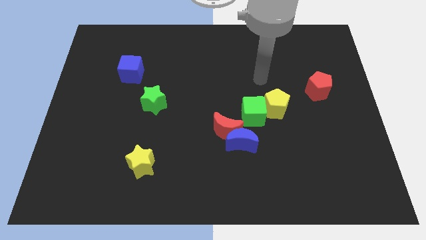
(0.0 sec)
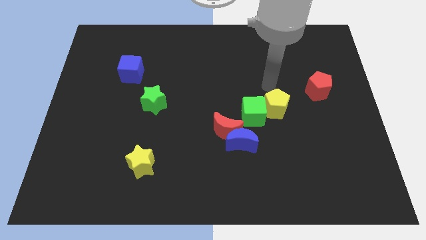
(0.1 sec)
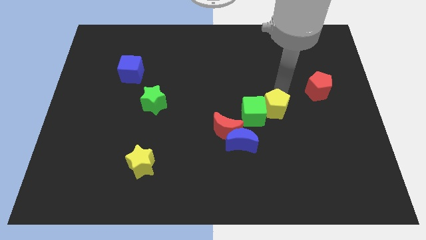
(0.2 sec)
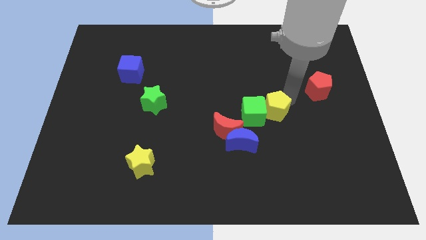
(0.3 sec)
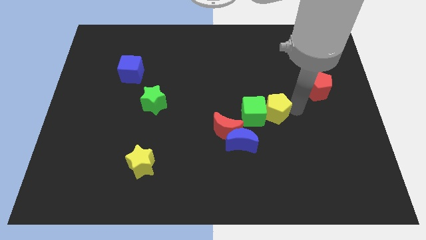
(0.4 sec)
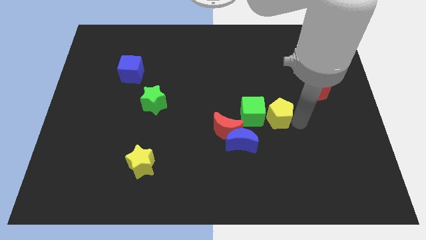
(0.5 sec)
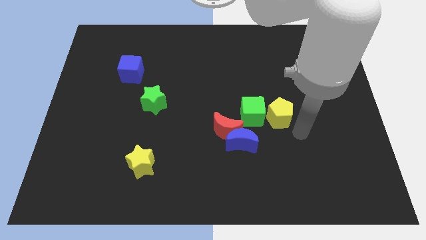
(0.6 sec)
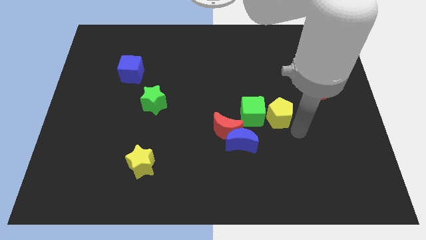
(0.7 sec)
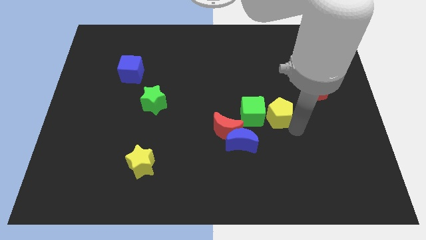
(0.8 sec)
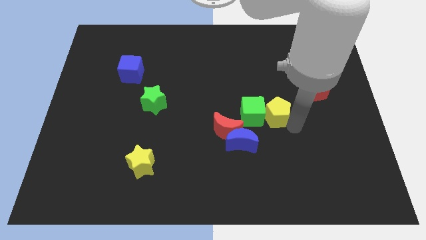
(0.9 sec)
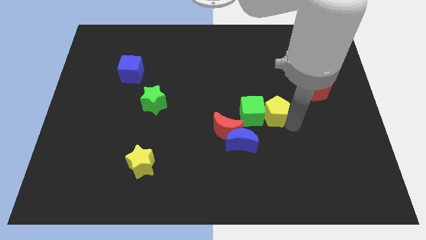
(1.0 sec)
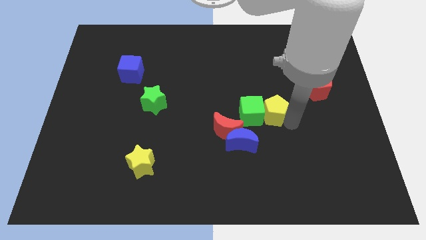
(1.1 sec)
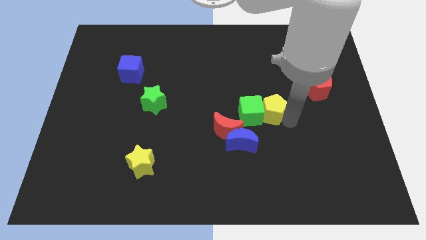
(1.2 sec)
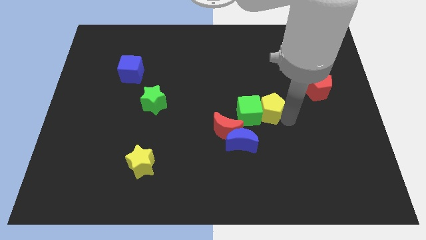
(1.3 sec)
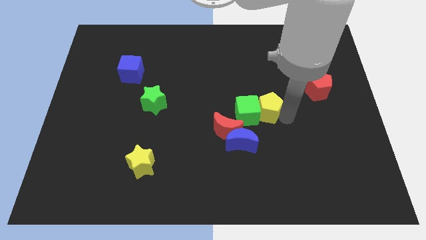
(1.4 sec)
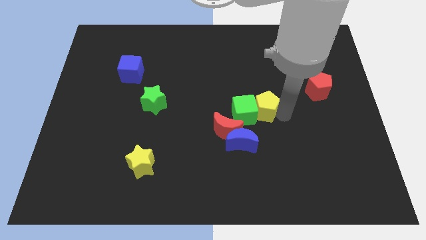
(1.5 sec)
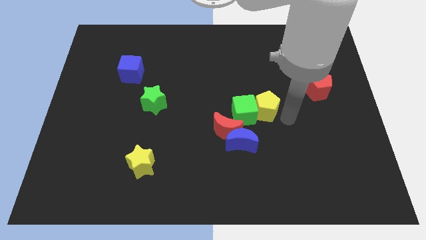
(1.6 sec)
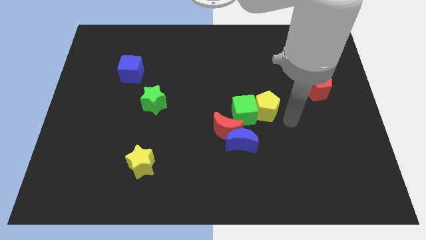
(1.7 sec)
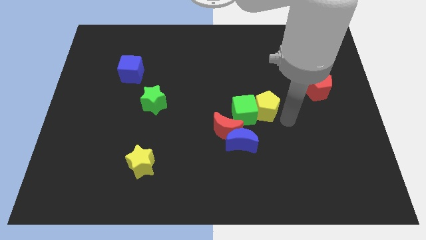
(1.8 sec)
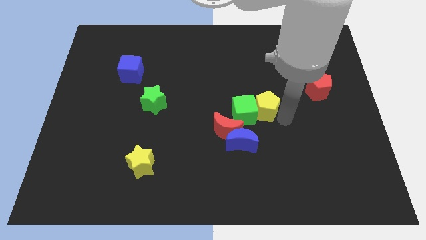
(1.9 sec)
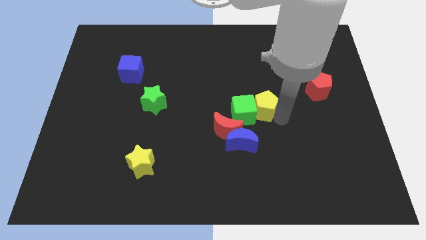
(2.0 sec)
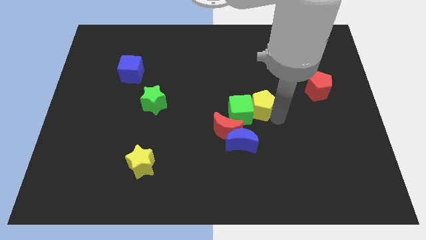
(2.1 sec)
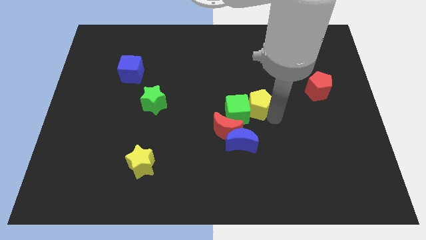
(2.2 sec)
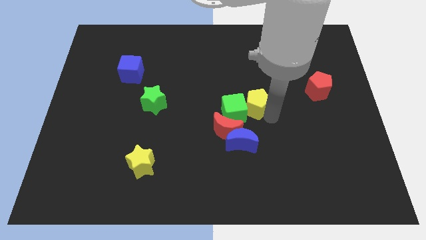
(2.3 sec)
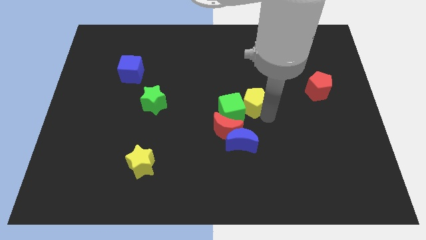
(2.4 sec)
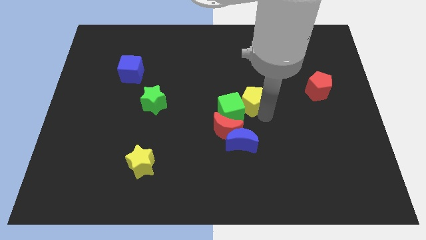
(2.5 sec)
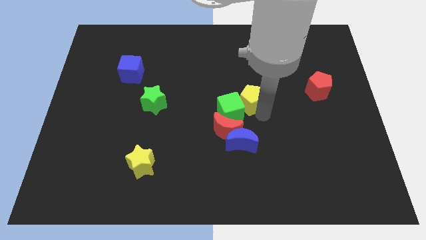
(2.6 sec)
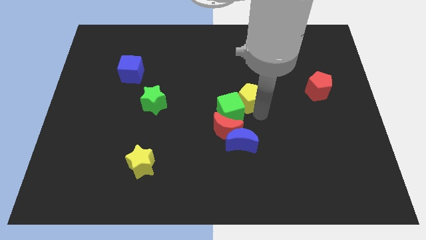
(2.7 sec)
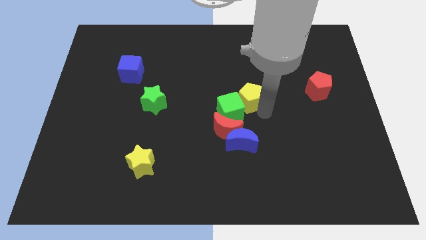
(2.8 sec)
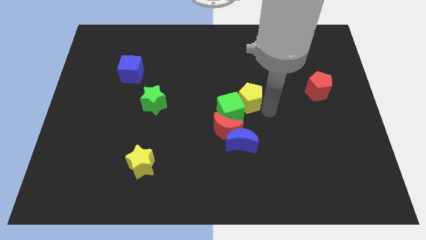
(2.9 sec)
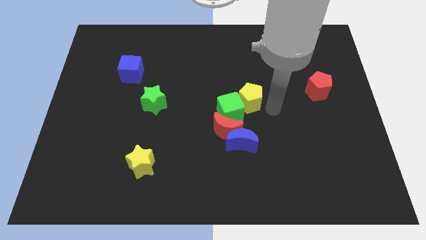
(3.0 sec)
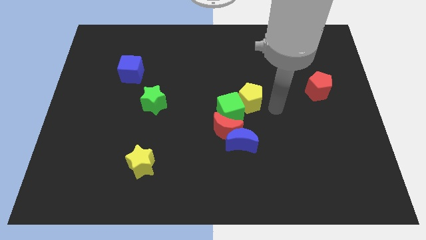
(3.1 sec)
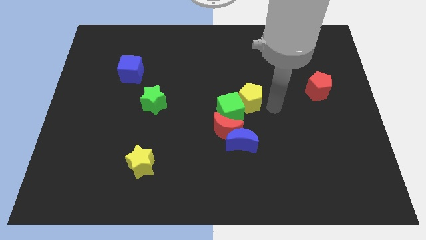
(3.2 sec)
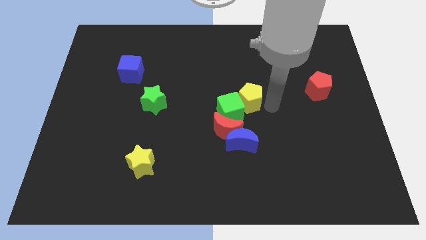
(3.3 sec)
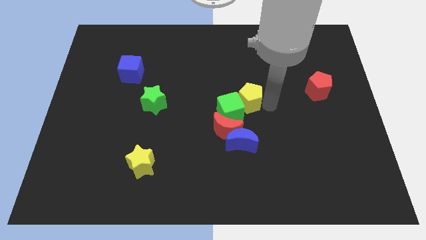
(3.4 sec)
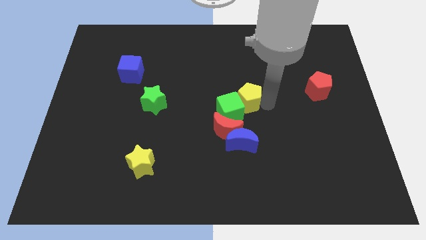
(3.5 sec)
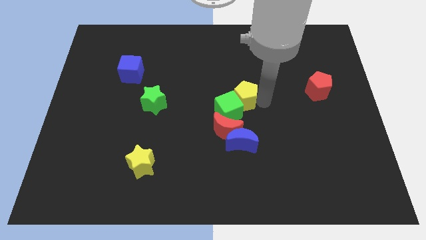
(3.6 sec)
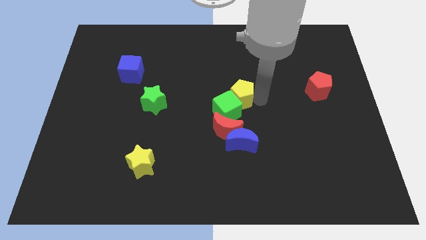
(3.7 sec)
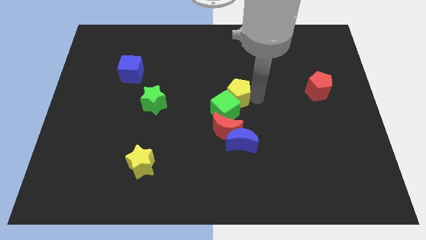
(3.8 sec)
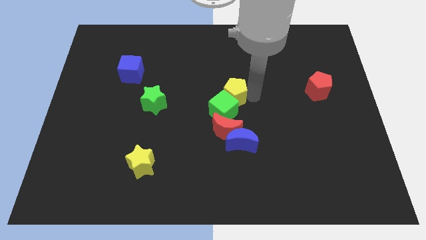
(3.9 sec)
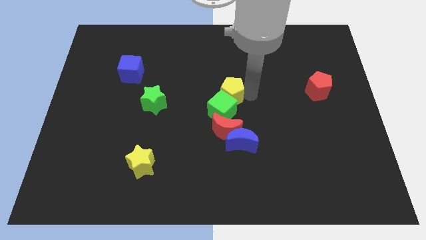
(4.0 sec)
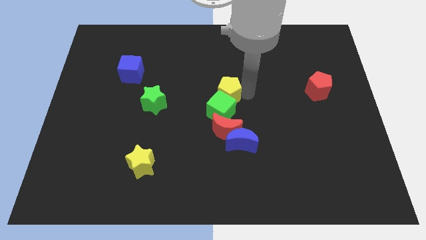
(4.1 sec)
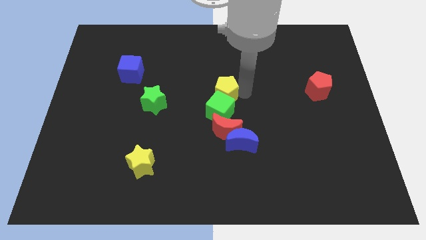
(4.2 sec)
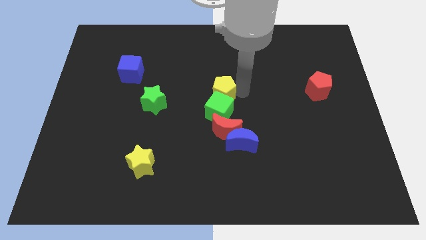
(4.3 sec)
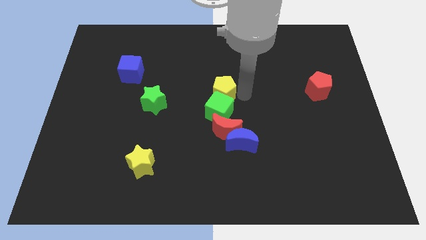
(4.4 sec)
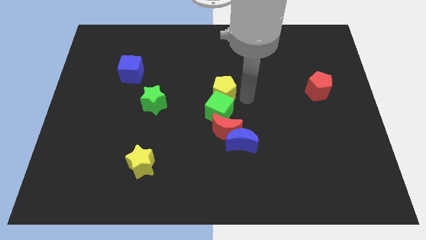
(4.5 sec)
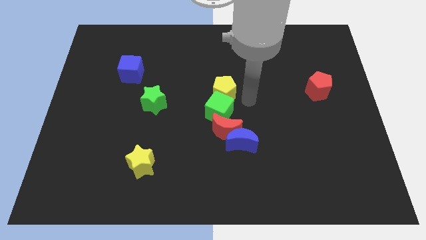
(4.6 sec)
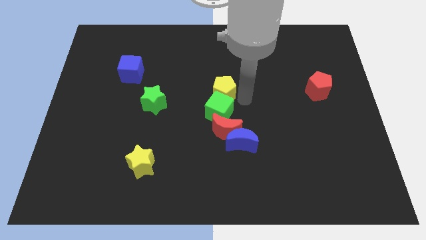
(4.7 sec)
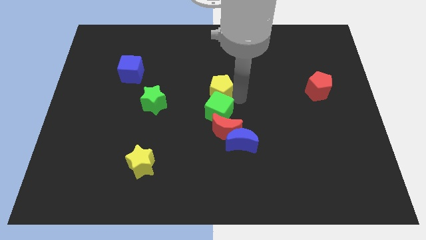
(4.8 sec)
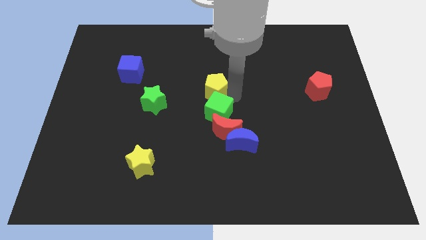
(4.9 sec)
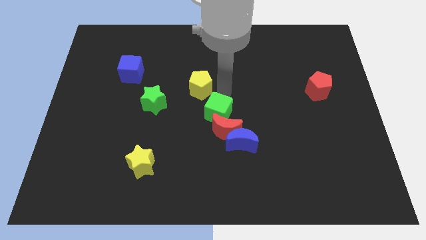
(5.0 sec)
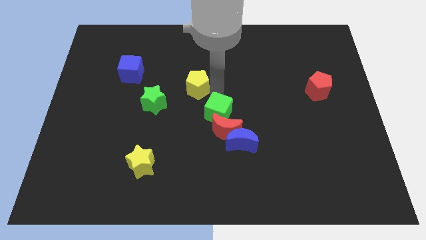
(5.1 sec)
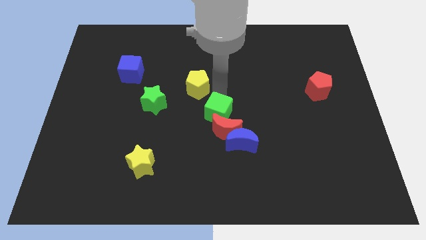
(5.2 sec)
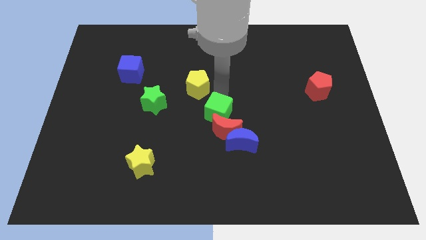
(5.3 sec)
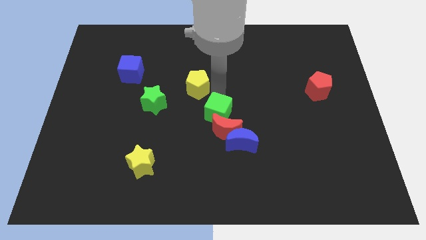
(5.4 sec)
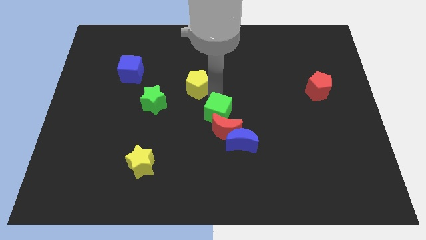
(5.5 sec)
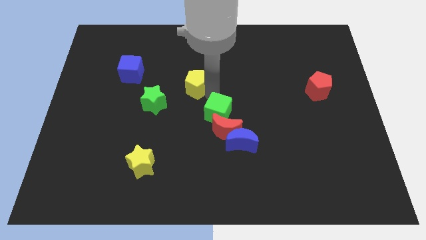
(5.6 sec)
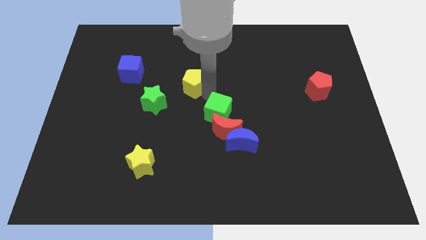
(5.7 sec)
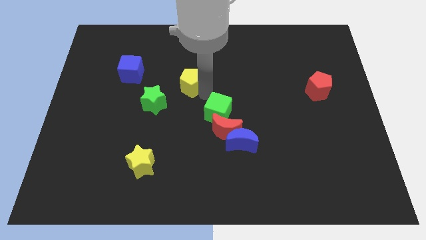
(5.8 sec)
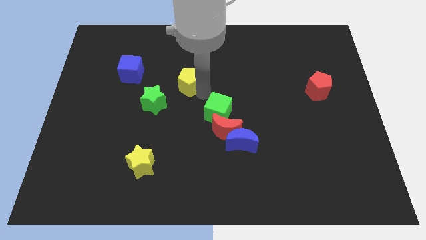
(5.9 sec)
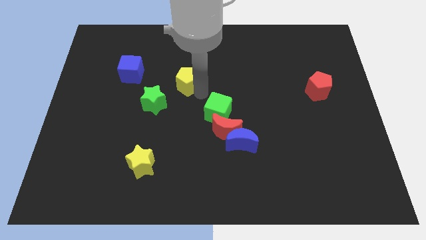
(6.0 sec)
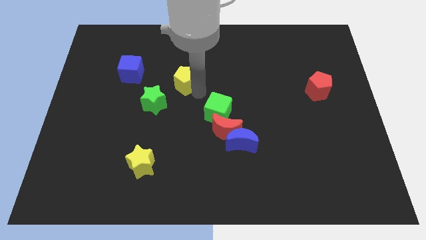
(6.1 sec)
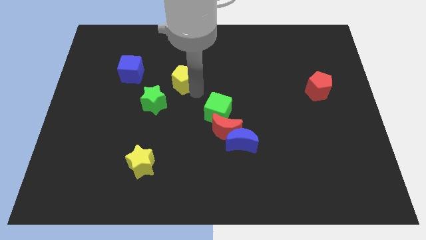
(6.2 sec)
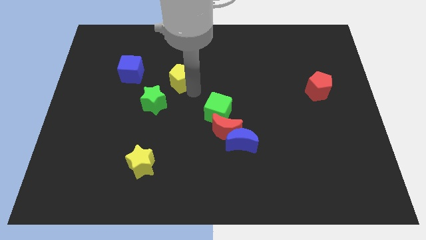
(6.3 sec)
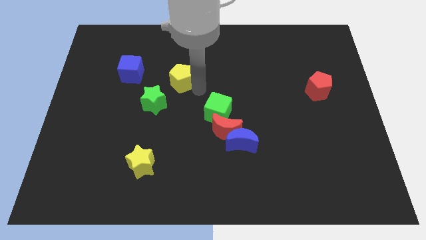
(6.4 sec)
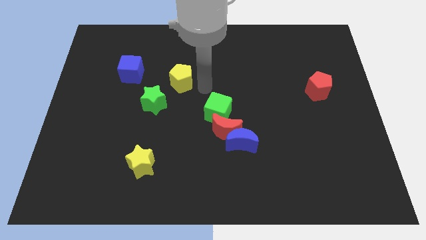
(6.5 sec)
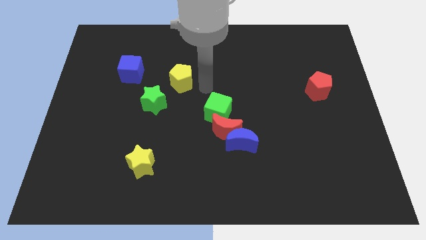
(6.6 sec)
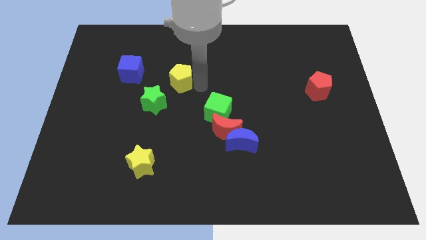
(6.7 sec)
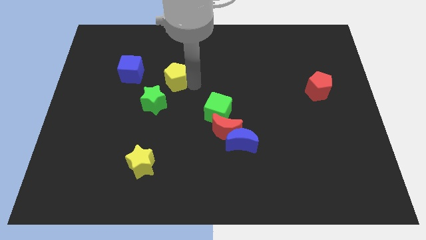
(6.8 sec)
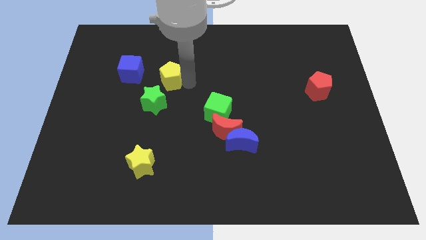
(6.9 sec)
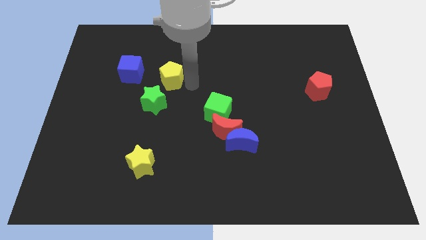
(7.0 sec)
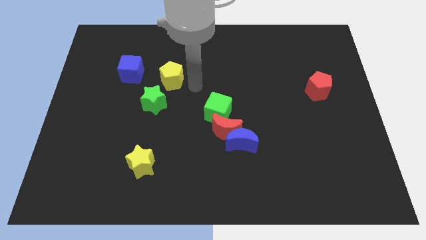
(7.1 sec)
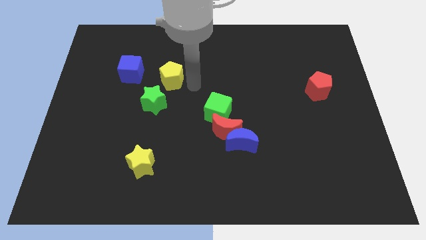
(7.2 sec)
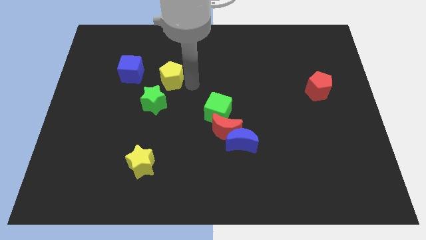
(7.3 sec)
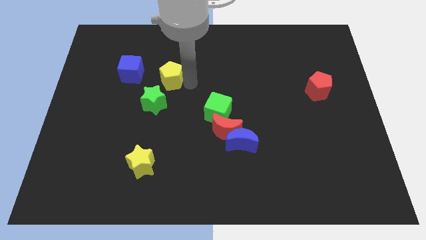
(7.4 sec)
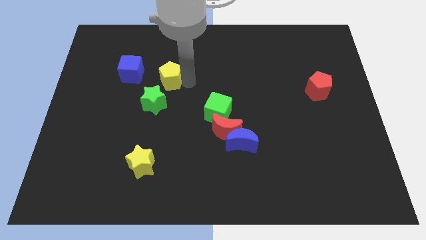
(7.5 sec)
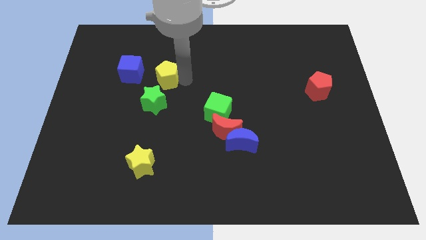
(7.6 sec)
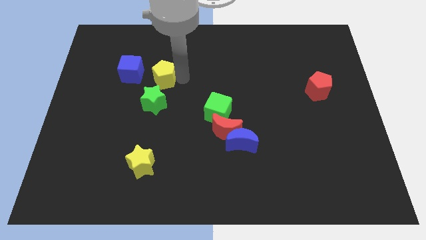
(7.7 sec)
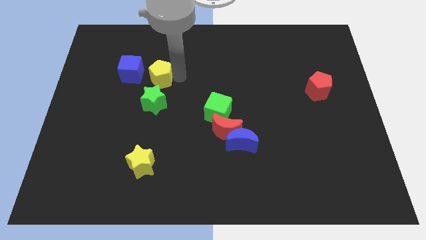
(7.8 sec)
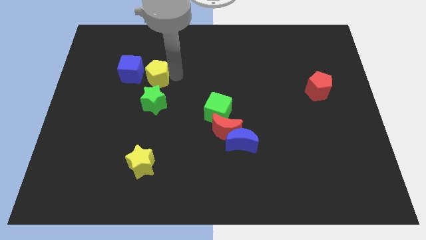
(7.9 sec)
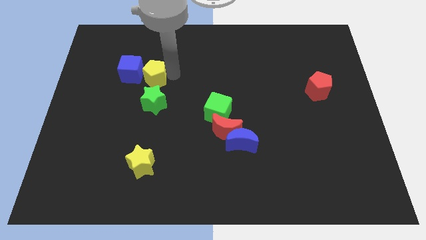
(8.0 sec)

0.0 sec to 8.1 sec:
put the yellow pentagon towards the blue cube
